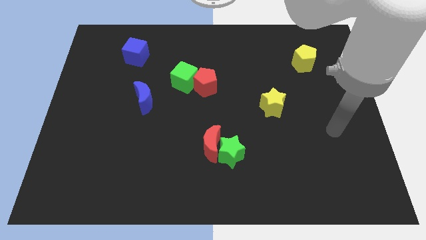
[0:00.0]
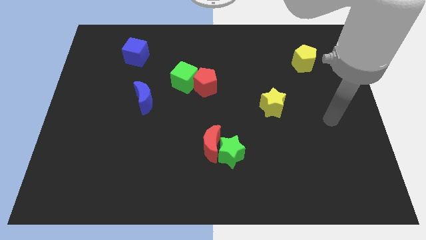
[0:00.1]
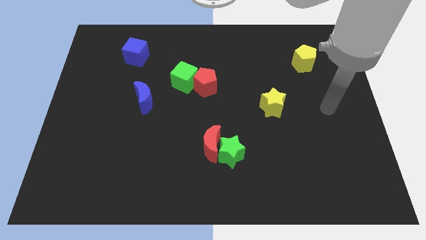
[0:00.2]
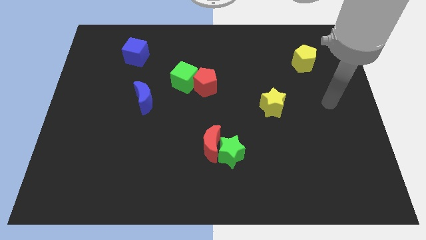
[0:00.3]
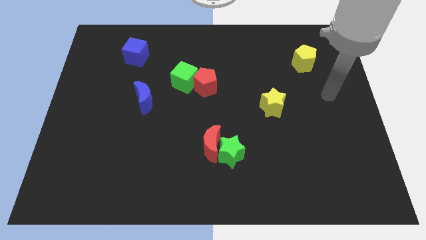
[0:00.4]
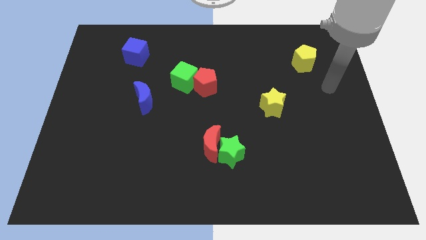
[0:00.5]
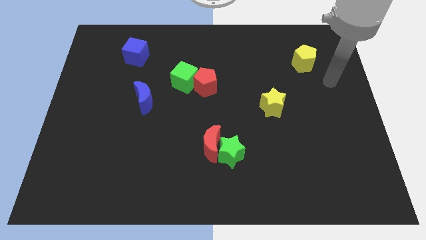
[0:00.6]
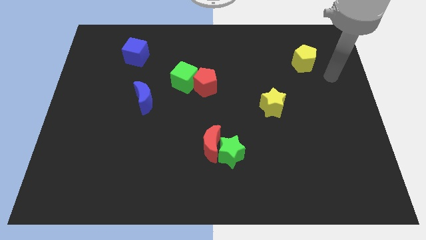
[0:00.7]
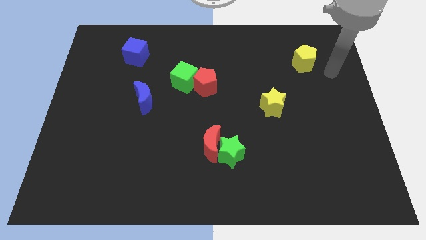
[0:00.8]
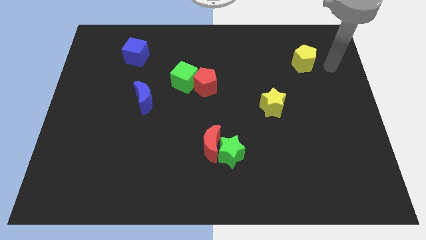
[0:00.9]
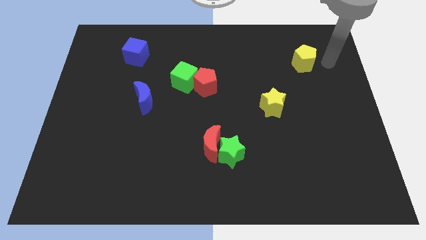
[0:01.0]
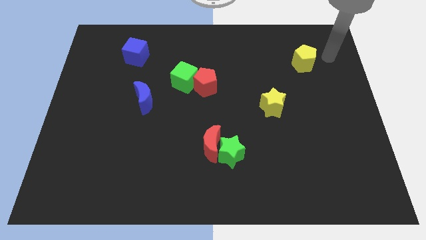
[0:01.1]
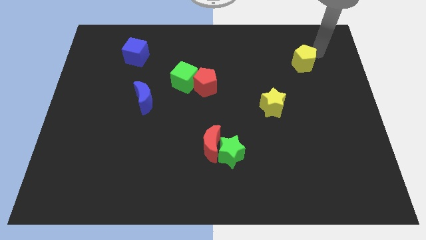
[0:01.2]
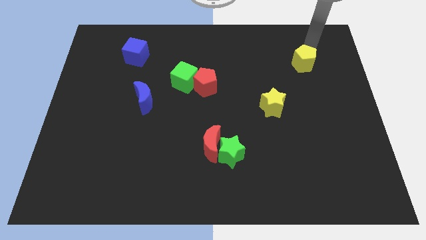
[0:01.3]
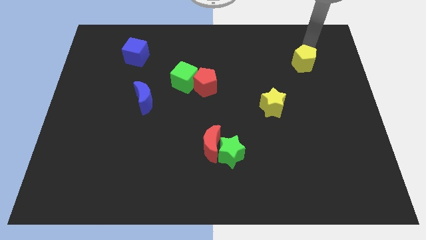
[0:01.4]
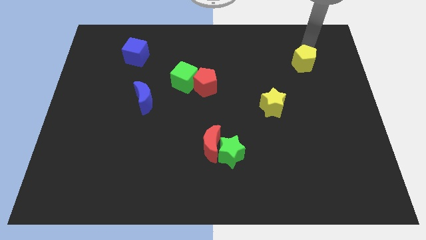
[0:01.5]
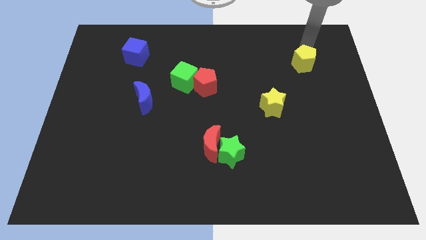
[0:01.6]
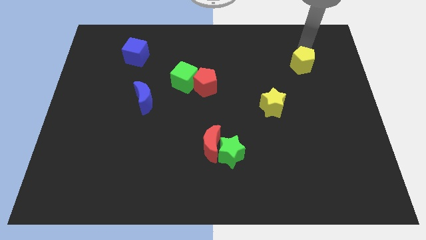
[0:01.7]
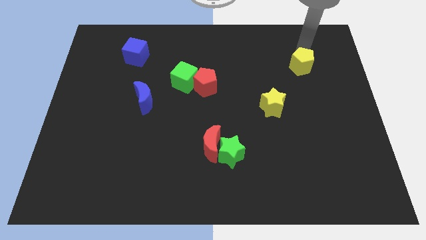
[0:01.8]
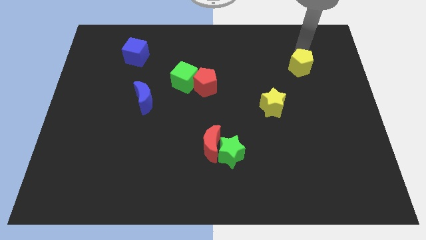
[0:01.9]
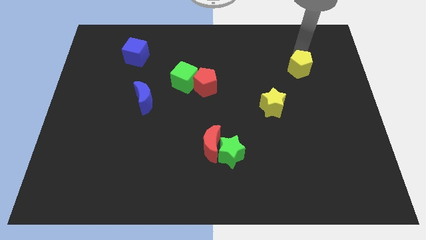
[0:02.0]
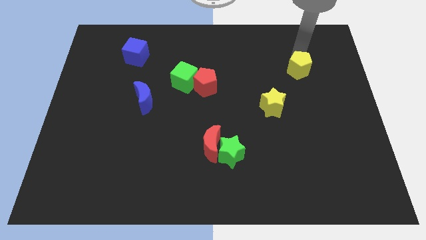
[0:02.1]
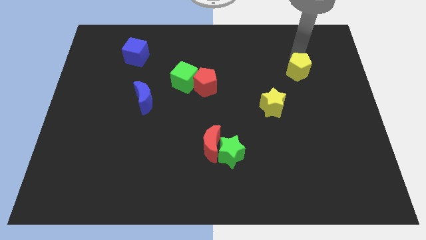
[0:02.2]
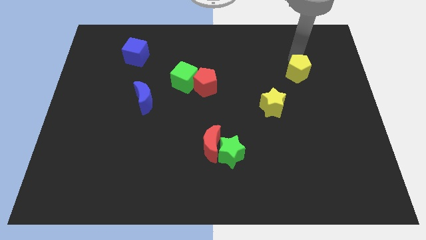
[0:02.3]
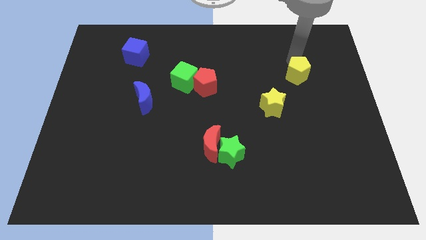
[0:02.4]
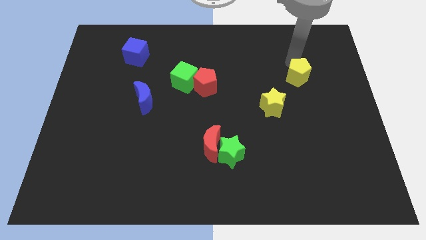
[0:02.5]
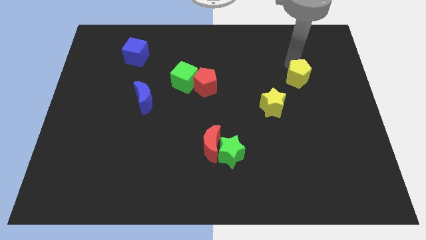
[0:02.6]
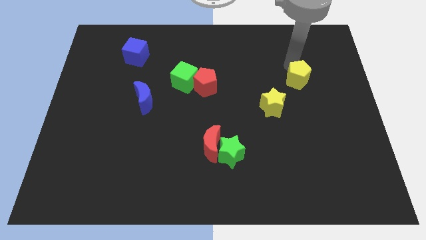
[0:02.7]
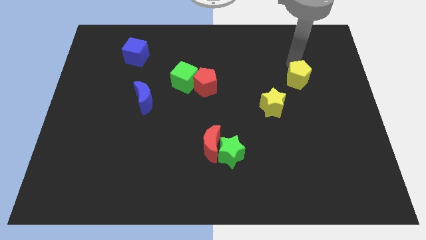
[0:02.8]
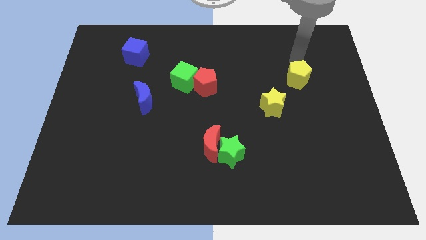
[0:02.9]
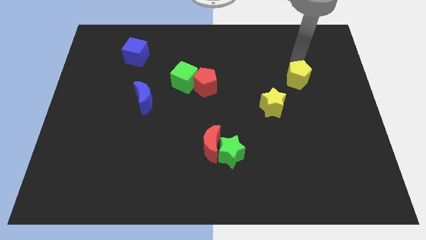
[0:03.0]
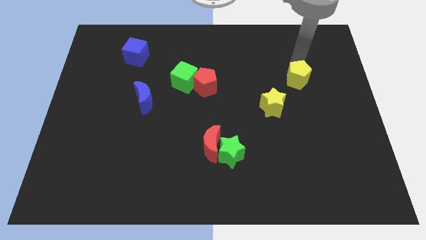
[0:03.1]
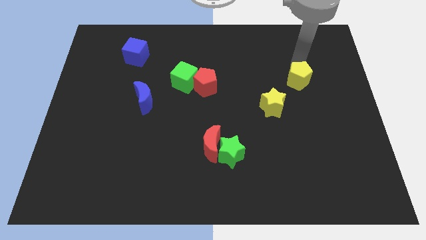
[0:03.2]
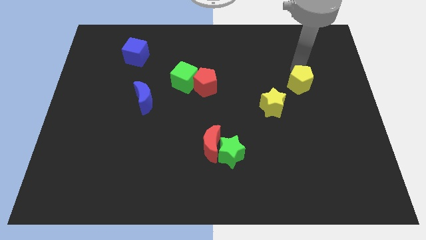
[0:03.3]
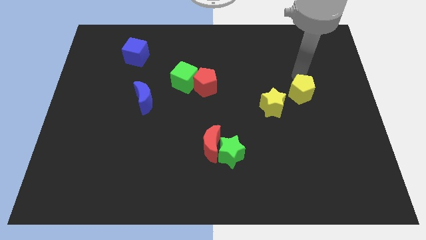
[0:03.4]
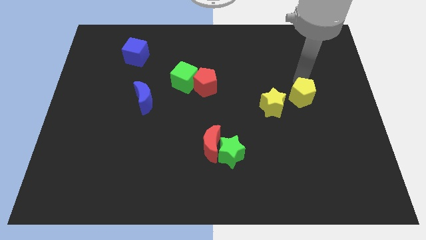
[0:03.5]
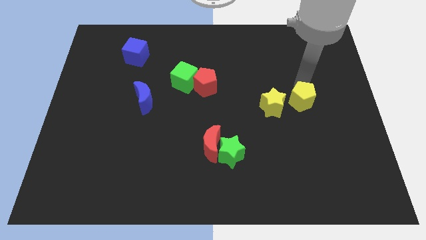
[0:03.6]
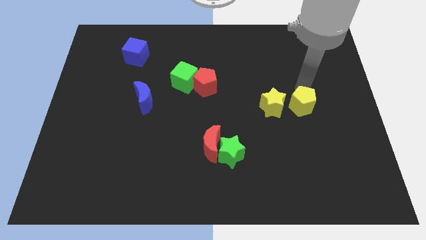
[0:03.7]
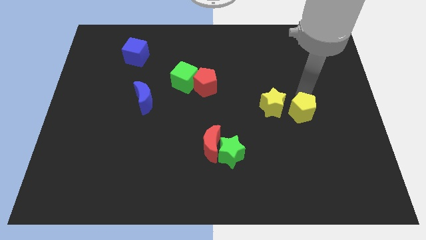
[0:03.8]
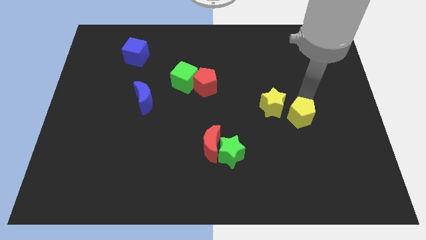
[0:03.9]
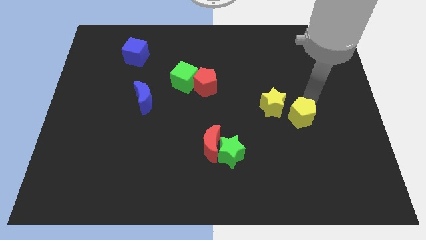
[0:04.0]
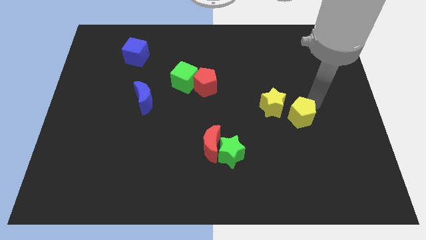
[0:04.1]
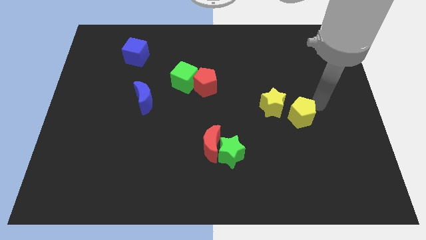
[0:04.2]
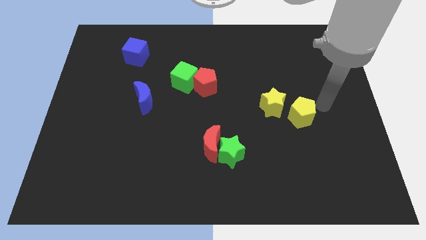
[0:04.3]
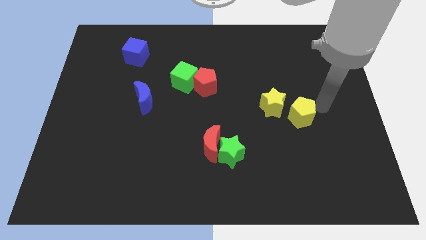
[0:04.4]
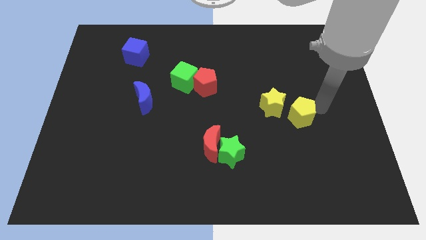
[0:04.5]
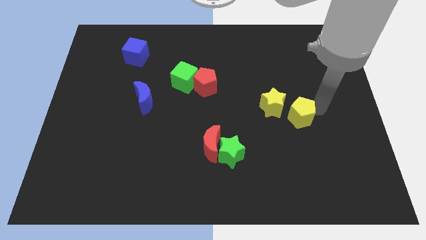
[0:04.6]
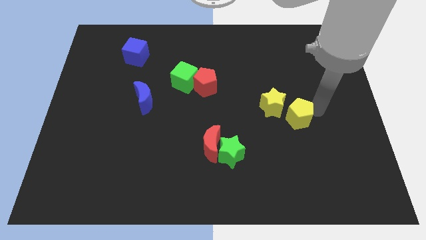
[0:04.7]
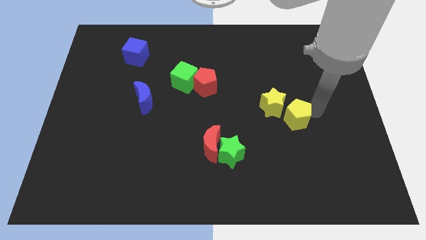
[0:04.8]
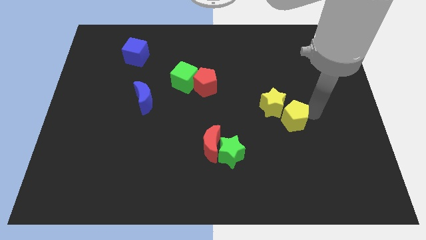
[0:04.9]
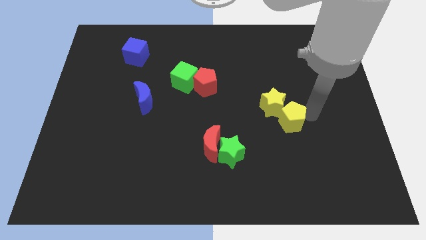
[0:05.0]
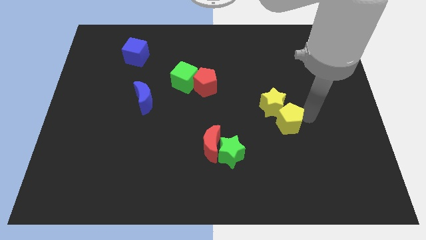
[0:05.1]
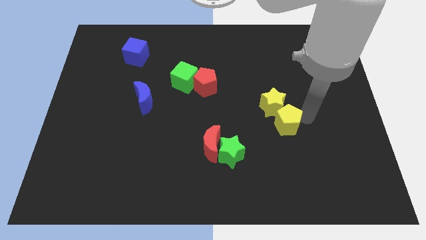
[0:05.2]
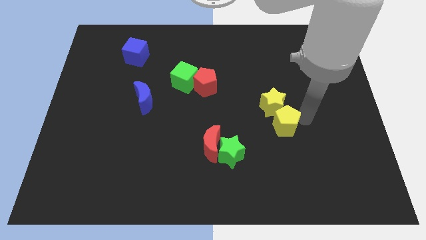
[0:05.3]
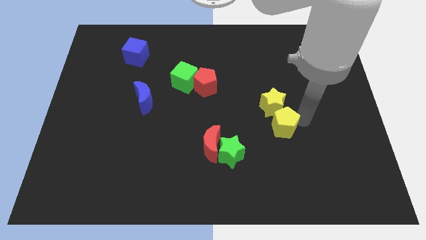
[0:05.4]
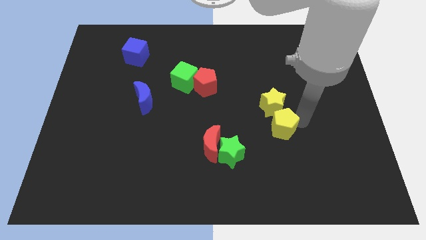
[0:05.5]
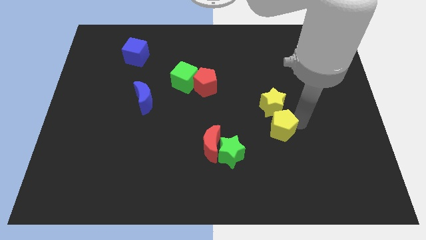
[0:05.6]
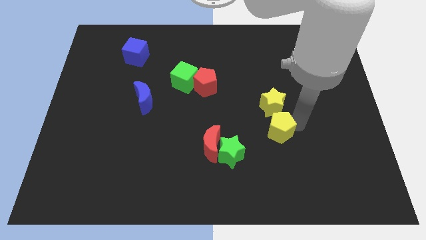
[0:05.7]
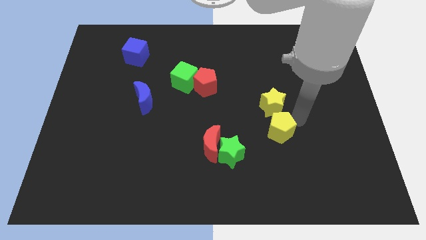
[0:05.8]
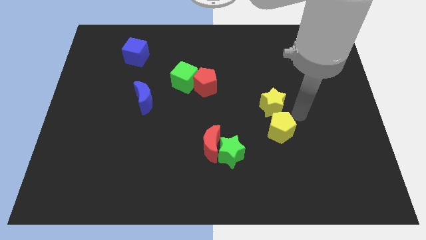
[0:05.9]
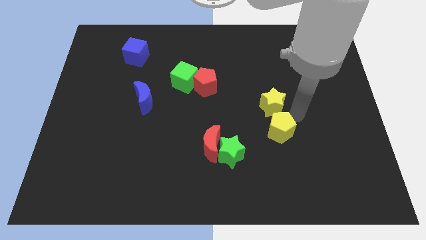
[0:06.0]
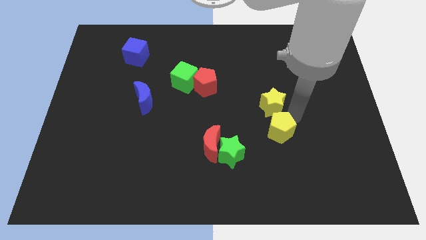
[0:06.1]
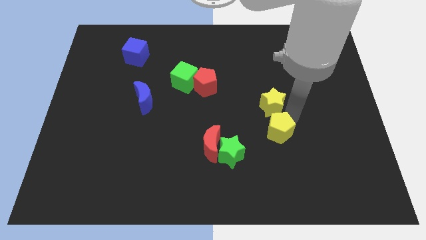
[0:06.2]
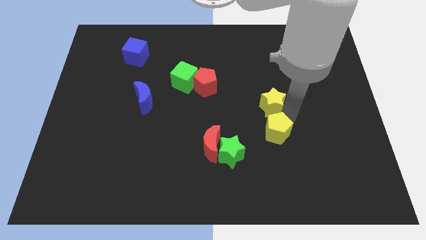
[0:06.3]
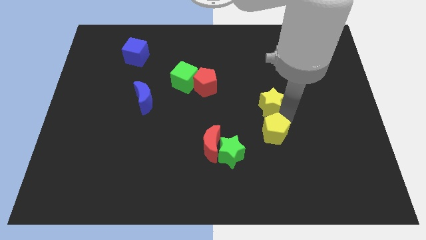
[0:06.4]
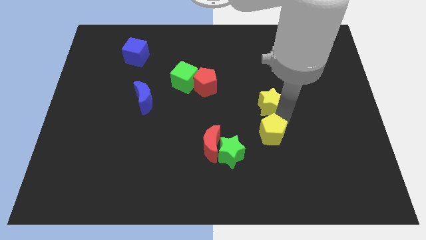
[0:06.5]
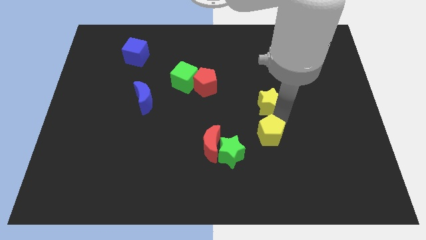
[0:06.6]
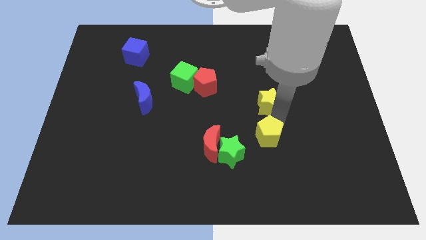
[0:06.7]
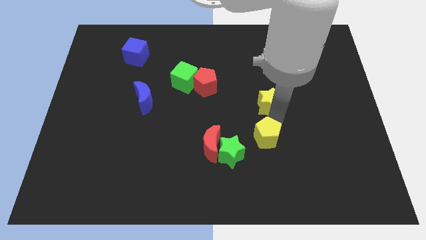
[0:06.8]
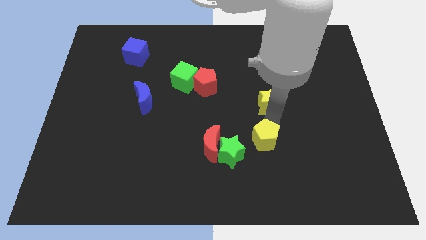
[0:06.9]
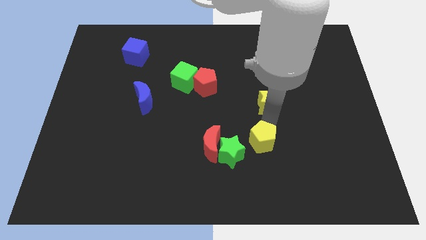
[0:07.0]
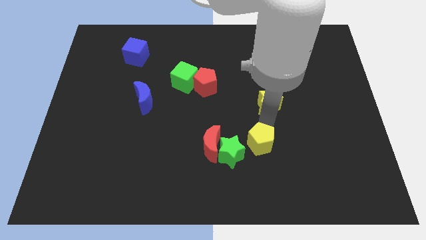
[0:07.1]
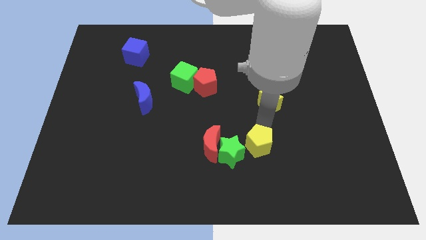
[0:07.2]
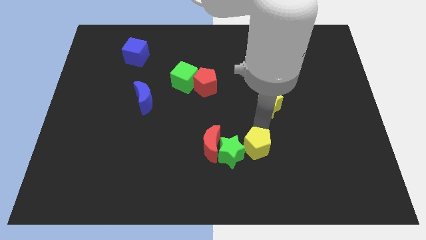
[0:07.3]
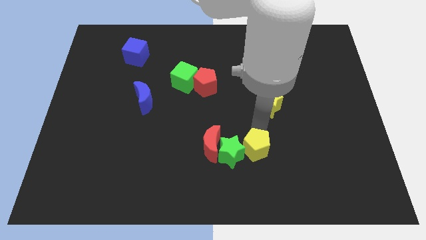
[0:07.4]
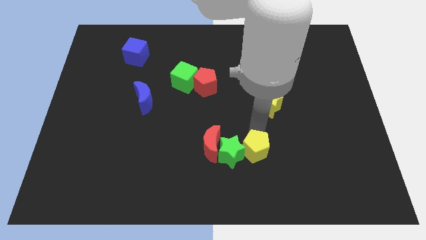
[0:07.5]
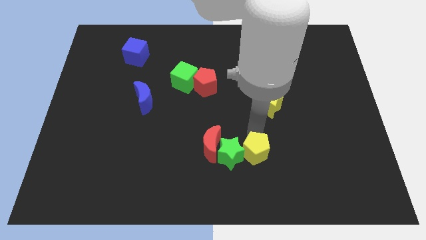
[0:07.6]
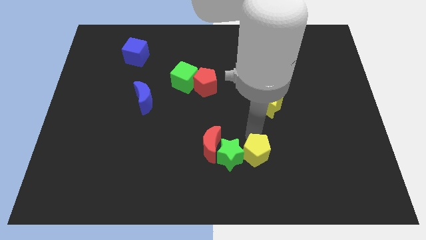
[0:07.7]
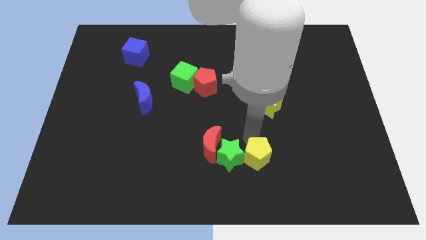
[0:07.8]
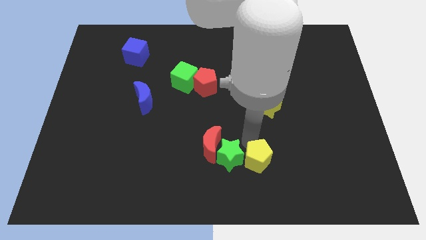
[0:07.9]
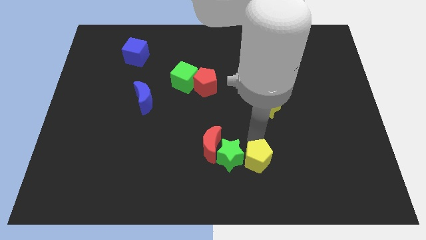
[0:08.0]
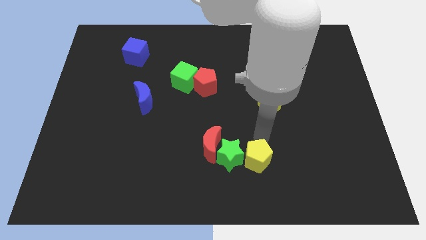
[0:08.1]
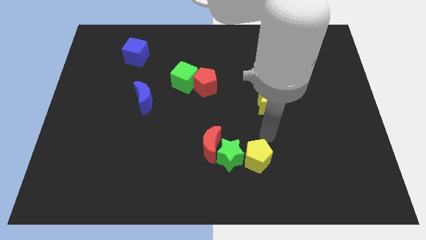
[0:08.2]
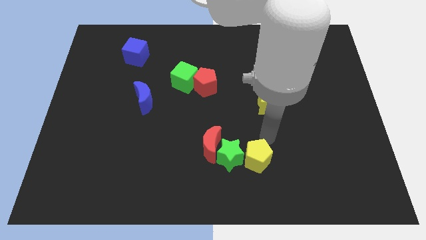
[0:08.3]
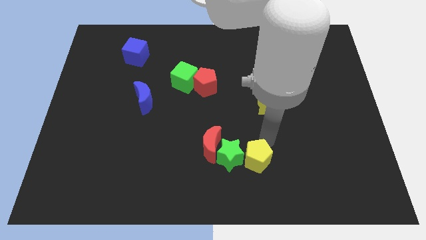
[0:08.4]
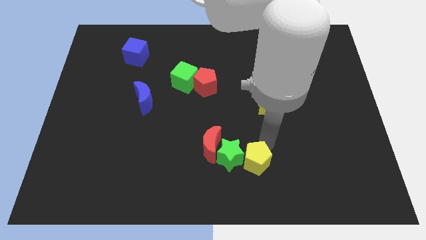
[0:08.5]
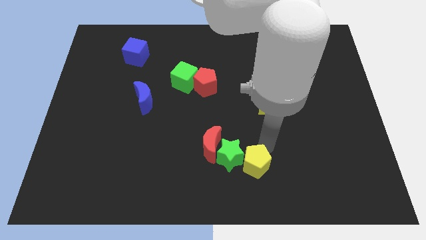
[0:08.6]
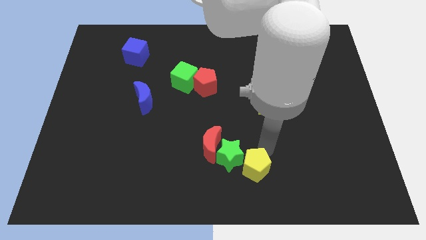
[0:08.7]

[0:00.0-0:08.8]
slide the yellow pentagon to the bottom side
